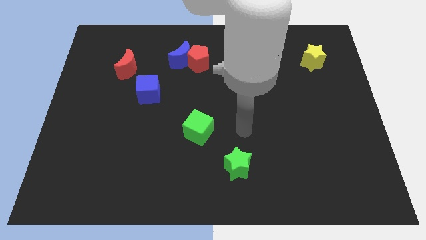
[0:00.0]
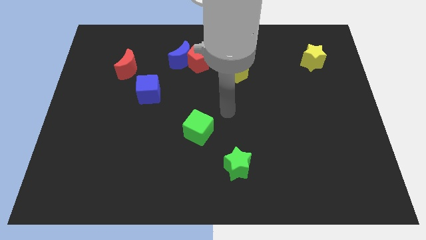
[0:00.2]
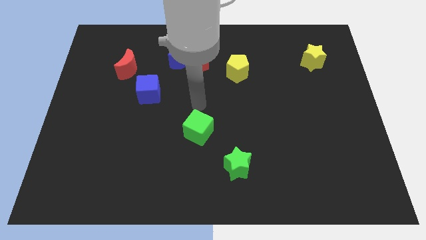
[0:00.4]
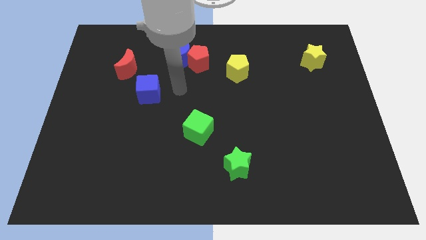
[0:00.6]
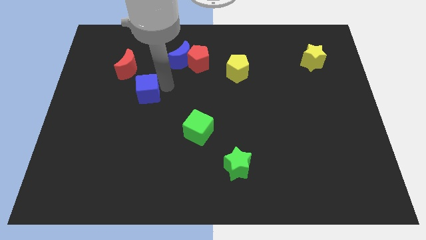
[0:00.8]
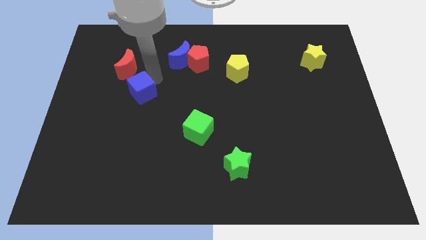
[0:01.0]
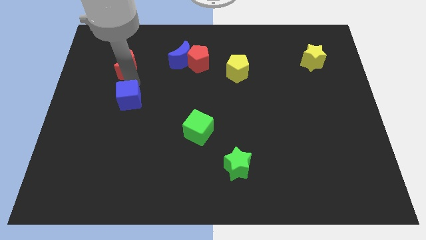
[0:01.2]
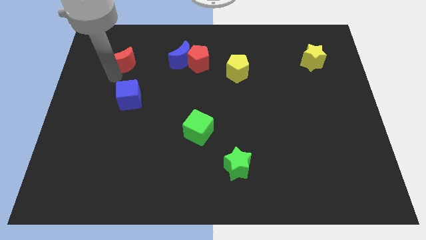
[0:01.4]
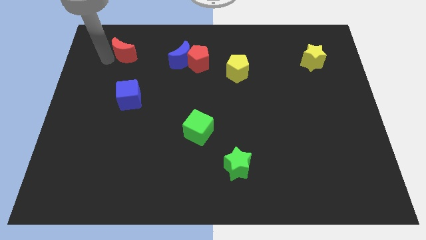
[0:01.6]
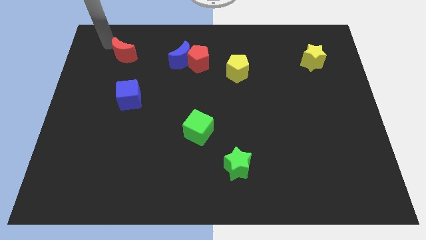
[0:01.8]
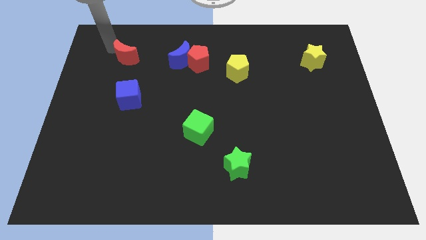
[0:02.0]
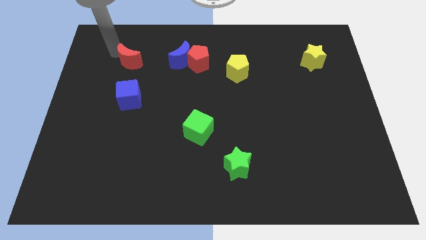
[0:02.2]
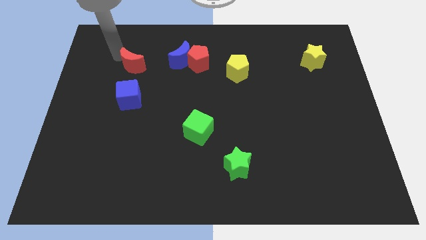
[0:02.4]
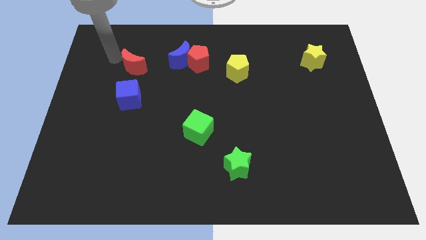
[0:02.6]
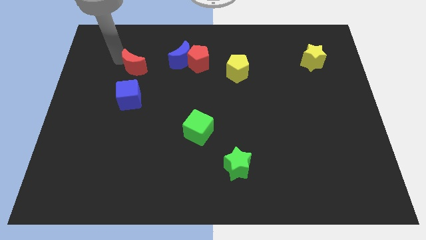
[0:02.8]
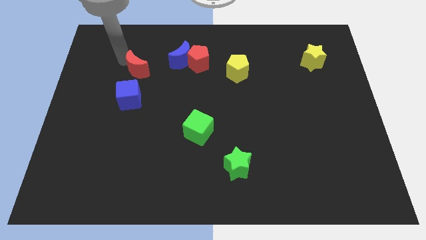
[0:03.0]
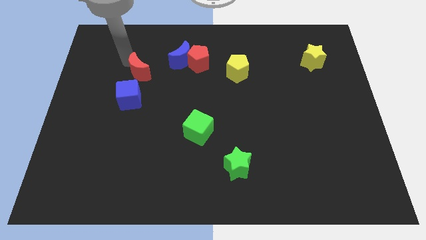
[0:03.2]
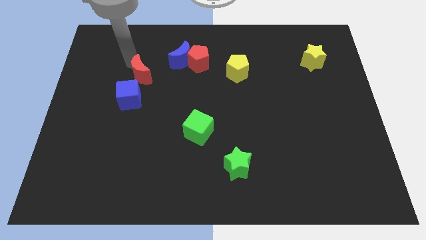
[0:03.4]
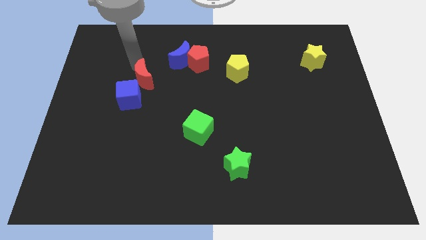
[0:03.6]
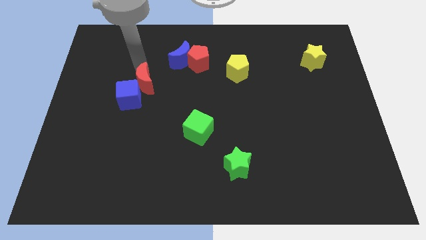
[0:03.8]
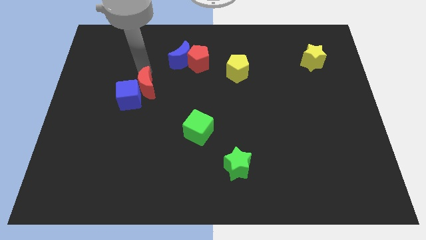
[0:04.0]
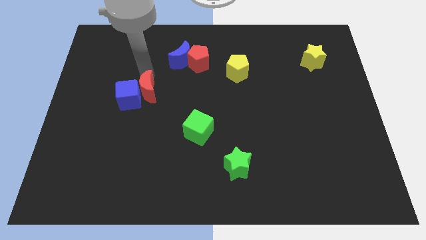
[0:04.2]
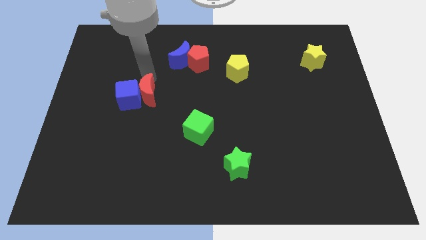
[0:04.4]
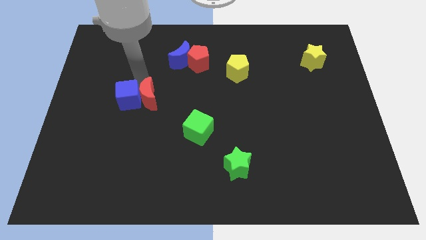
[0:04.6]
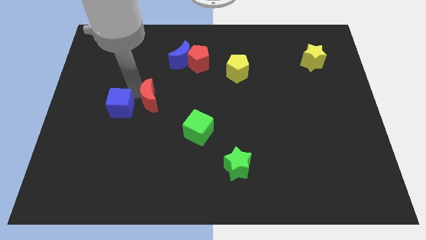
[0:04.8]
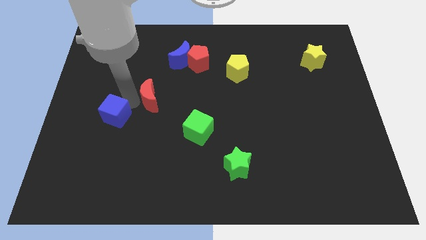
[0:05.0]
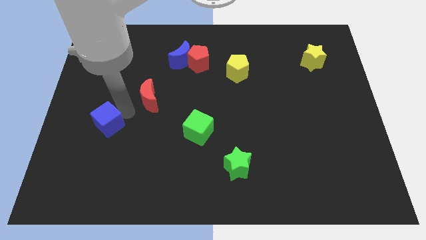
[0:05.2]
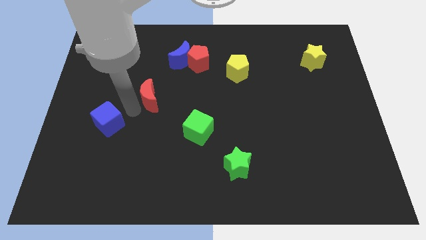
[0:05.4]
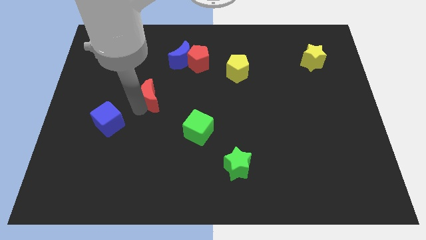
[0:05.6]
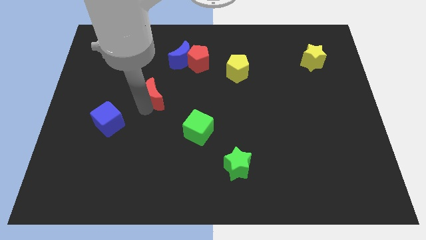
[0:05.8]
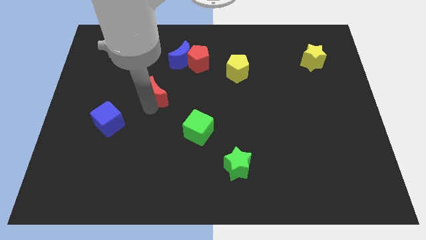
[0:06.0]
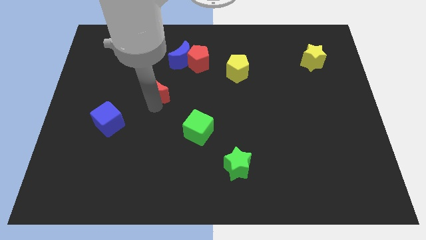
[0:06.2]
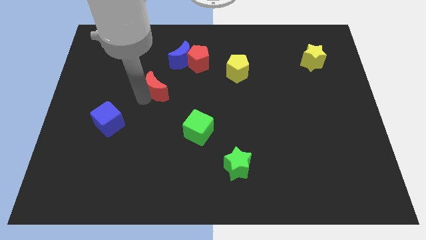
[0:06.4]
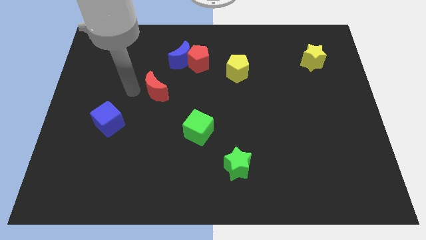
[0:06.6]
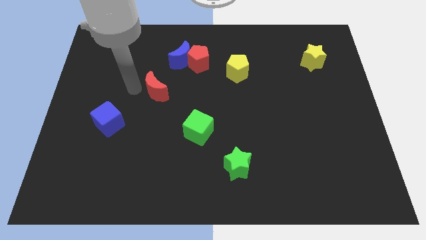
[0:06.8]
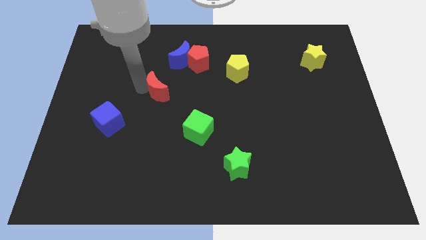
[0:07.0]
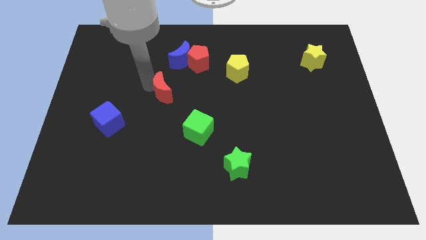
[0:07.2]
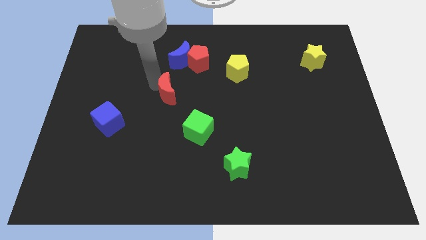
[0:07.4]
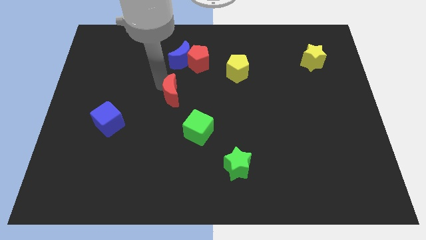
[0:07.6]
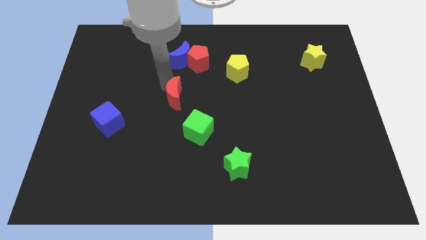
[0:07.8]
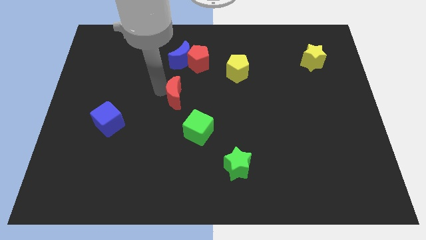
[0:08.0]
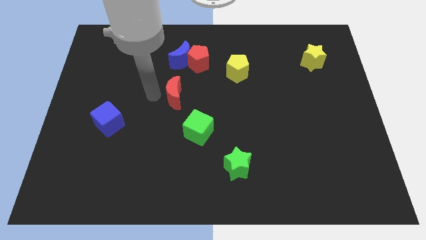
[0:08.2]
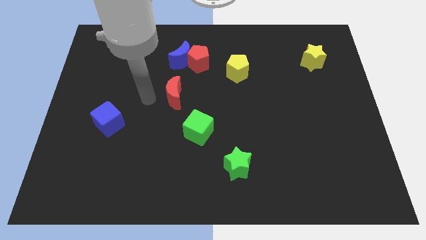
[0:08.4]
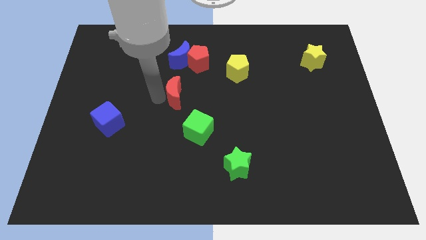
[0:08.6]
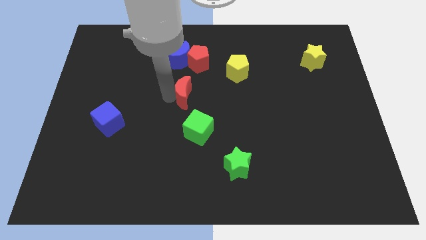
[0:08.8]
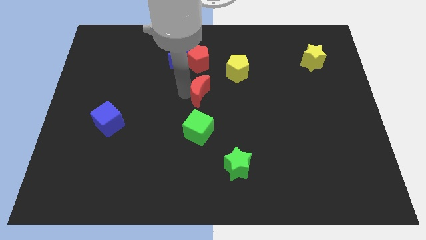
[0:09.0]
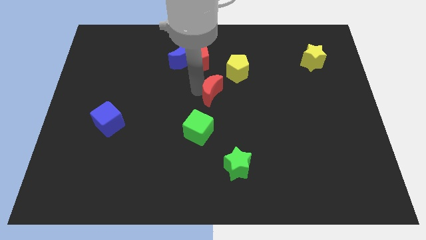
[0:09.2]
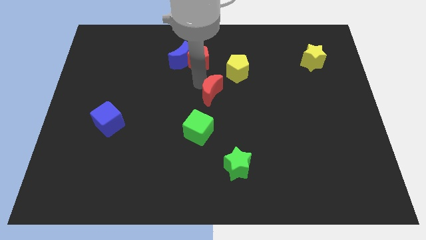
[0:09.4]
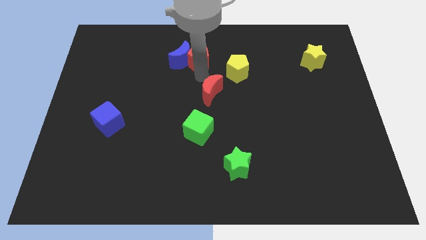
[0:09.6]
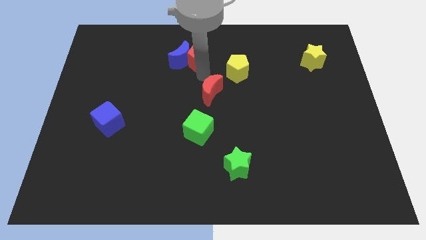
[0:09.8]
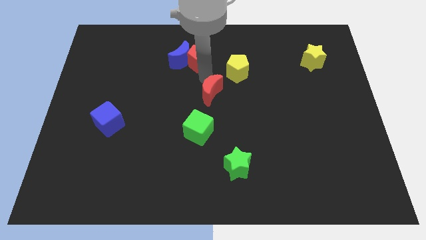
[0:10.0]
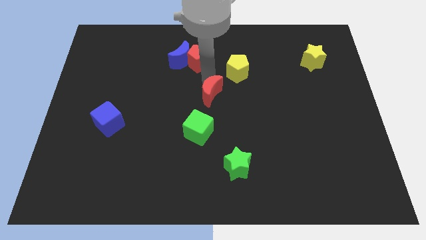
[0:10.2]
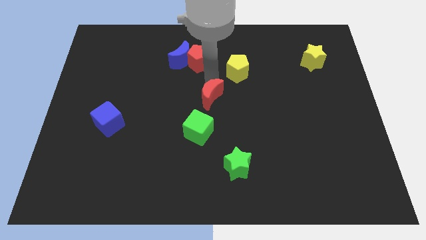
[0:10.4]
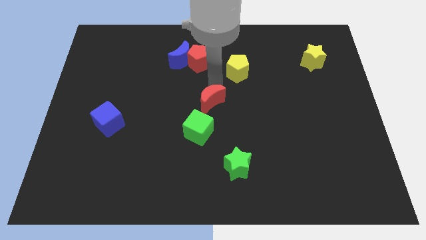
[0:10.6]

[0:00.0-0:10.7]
slide the red moon downwards and then to the right

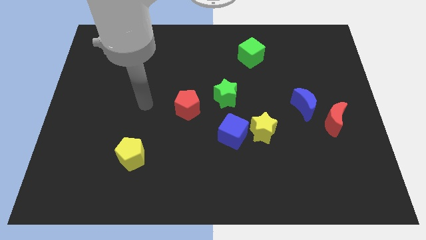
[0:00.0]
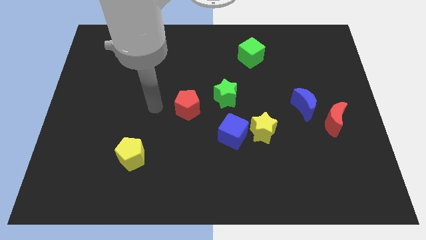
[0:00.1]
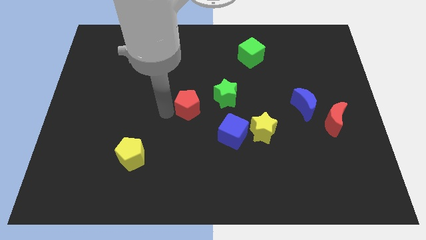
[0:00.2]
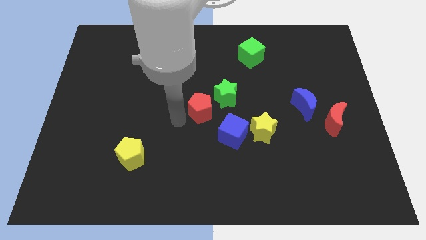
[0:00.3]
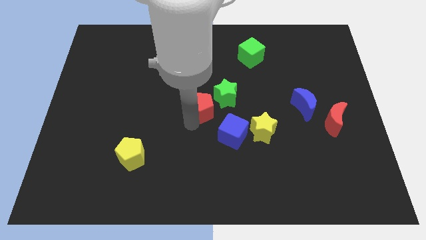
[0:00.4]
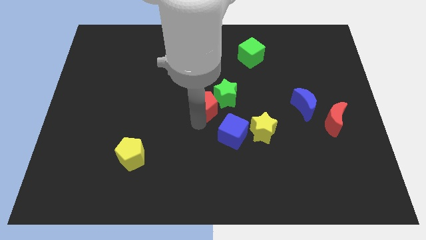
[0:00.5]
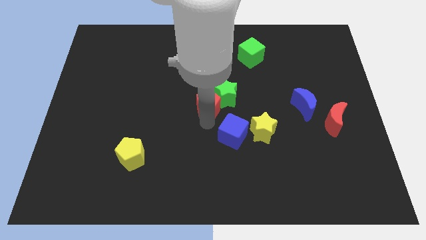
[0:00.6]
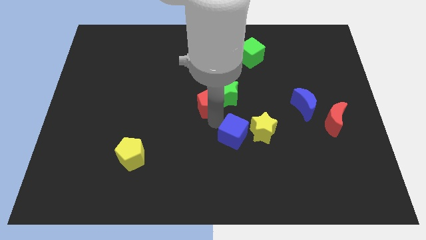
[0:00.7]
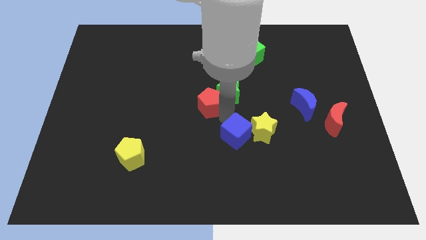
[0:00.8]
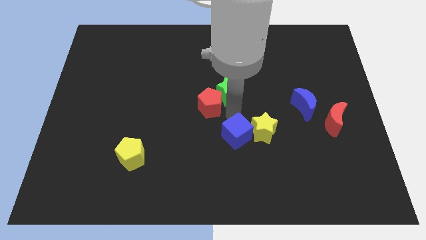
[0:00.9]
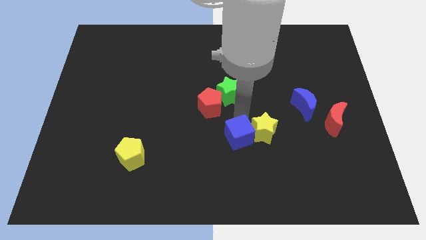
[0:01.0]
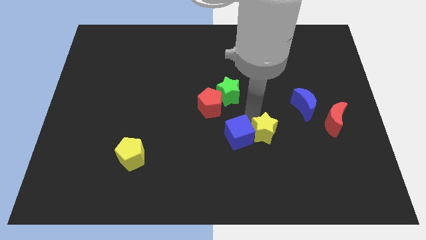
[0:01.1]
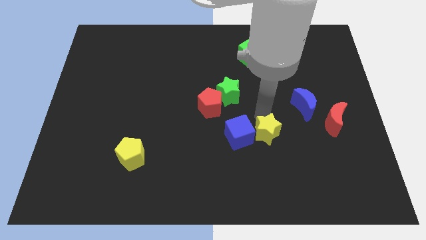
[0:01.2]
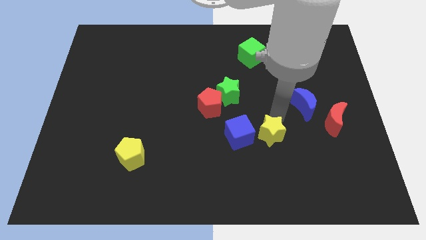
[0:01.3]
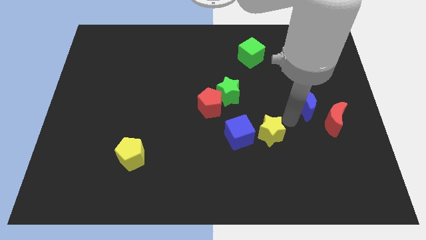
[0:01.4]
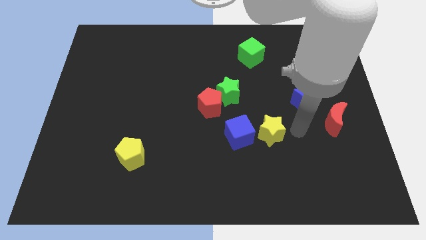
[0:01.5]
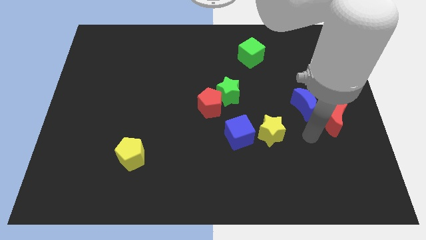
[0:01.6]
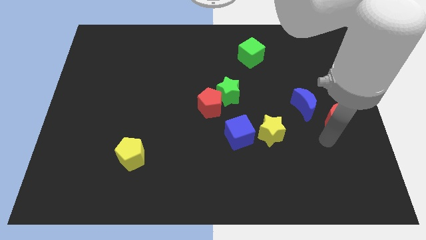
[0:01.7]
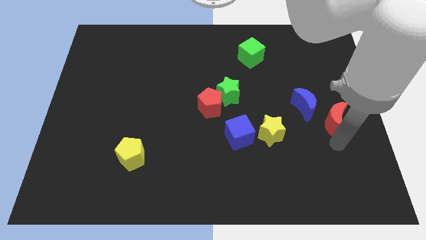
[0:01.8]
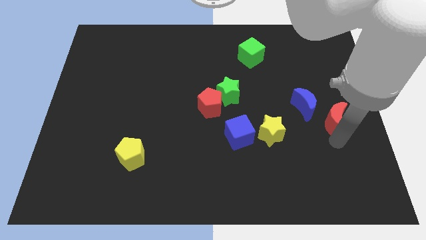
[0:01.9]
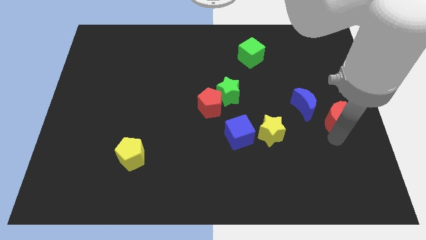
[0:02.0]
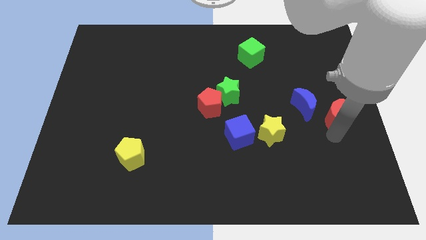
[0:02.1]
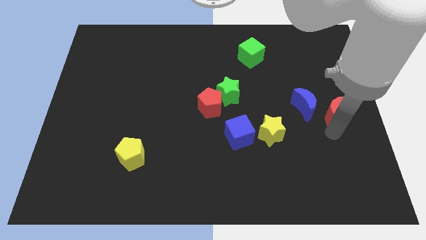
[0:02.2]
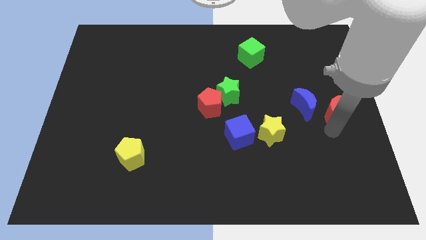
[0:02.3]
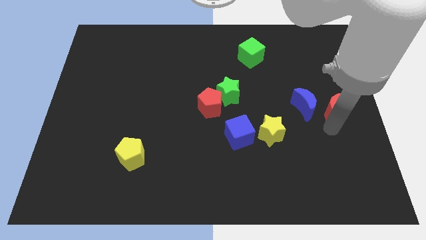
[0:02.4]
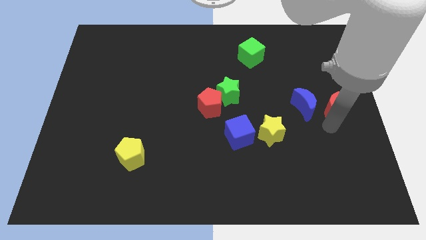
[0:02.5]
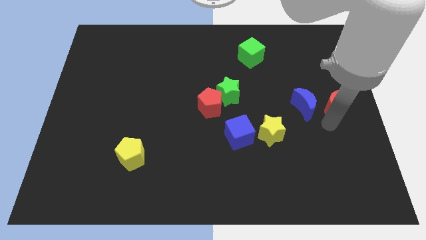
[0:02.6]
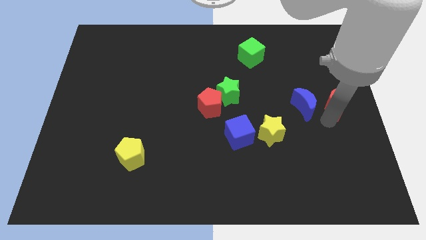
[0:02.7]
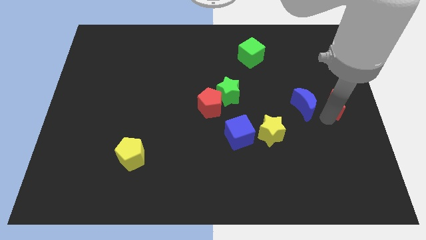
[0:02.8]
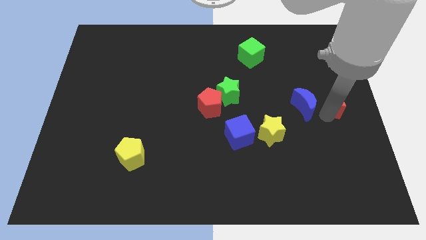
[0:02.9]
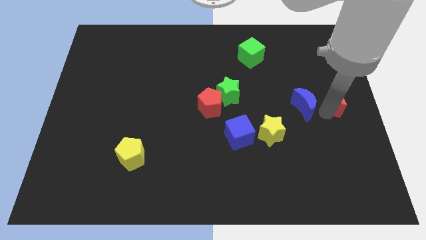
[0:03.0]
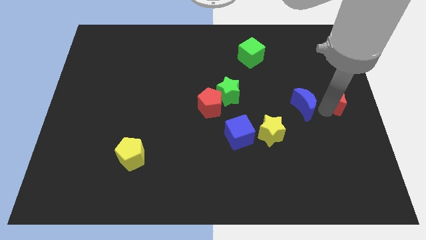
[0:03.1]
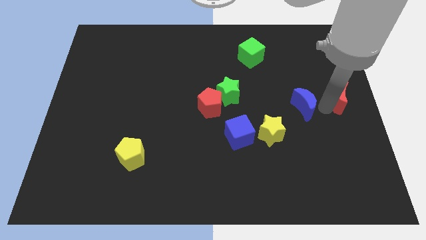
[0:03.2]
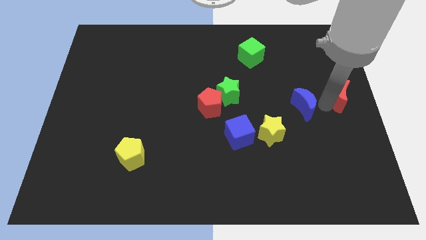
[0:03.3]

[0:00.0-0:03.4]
slide the red moon slightly upwards
